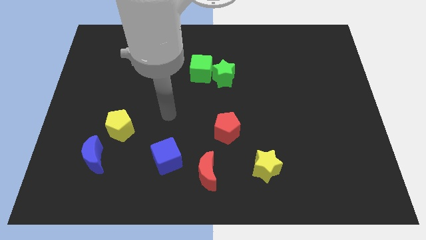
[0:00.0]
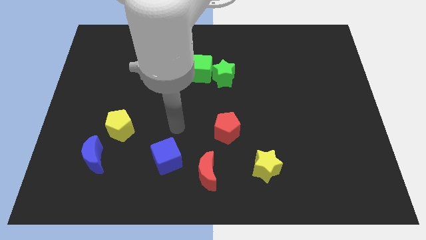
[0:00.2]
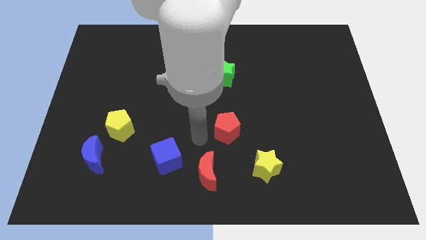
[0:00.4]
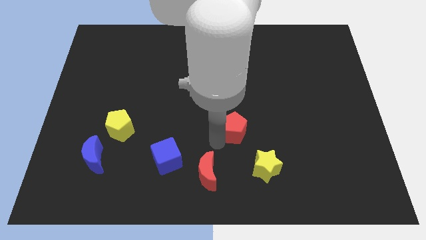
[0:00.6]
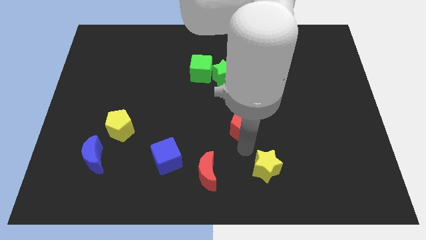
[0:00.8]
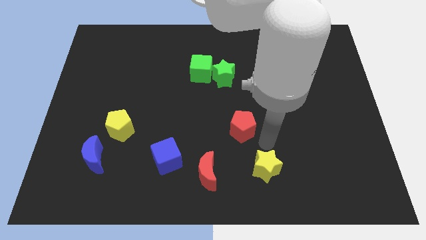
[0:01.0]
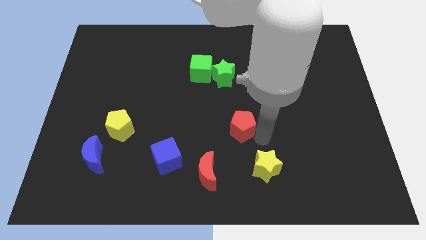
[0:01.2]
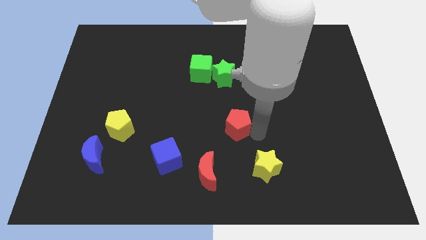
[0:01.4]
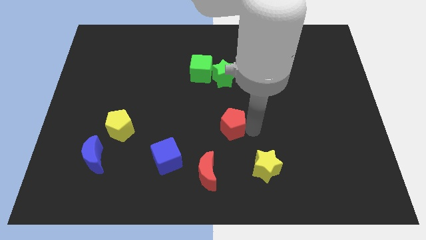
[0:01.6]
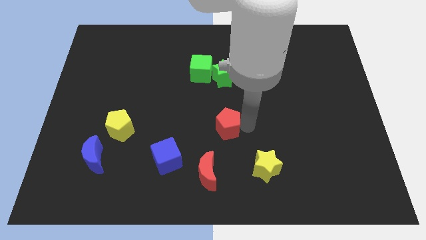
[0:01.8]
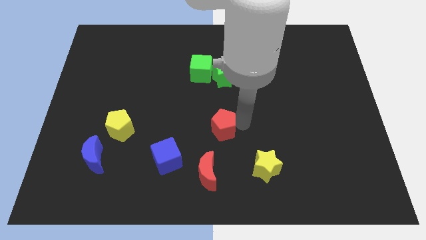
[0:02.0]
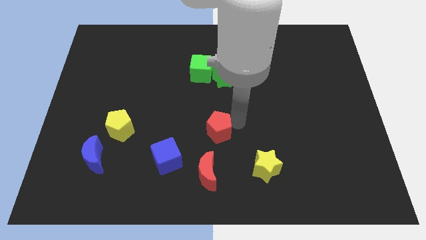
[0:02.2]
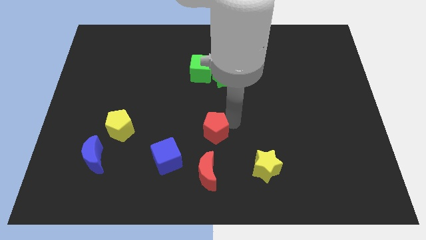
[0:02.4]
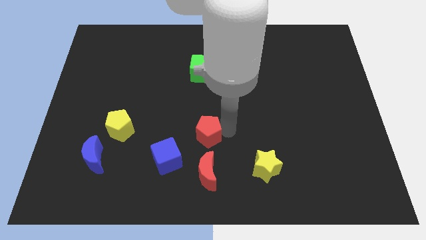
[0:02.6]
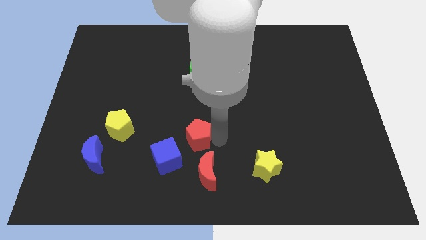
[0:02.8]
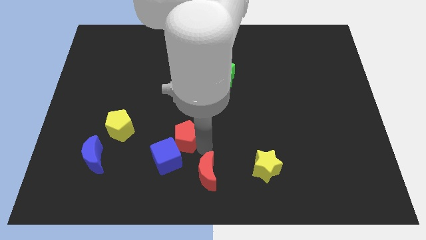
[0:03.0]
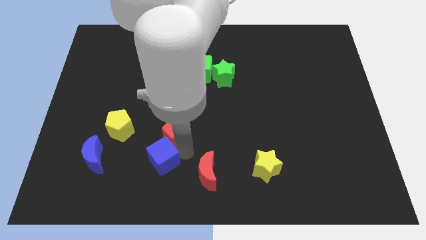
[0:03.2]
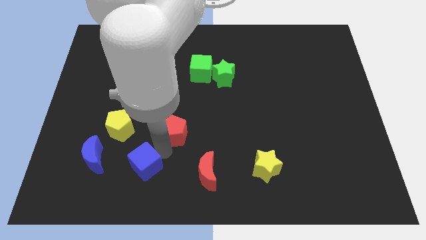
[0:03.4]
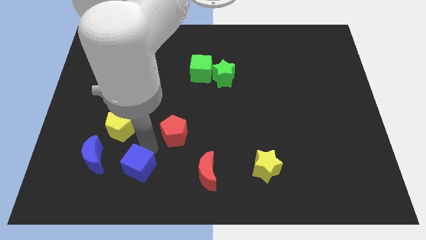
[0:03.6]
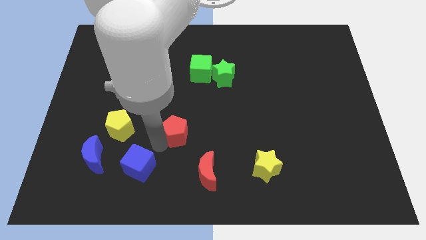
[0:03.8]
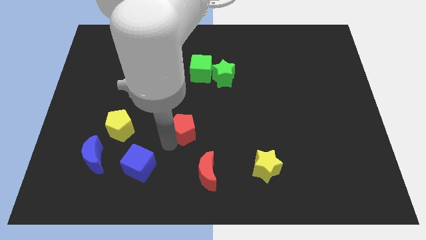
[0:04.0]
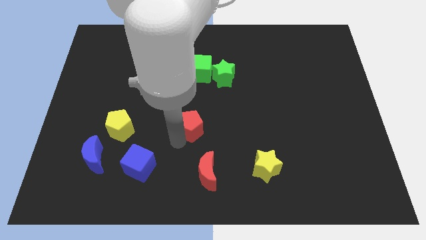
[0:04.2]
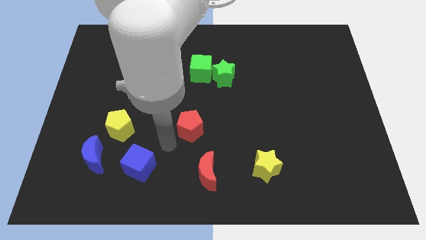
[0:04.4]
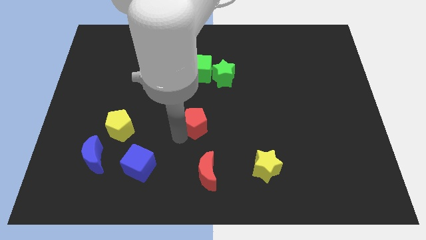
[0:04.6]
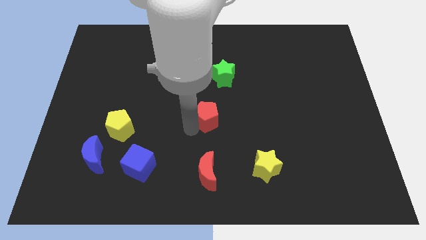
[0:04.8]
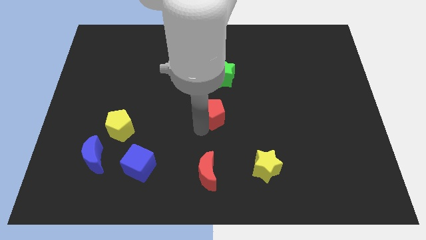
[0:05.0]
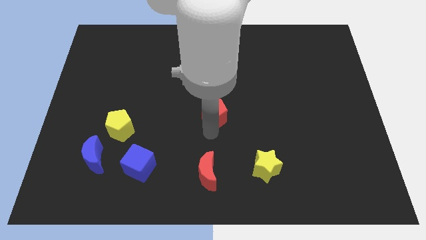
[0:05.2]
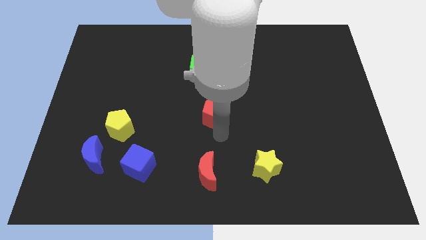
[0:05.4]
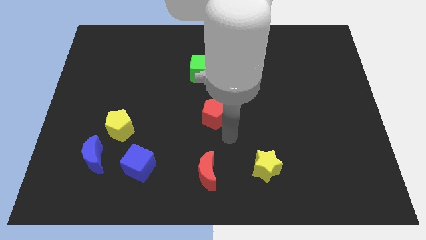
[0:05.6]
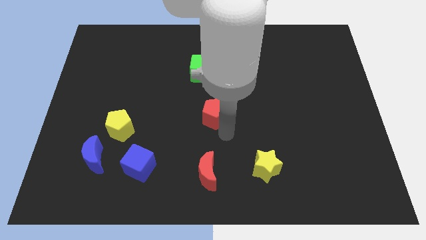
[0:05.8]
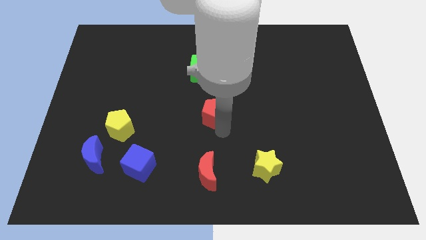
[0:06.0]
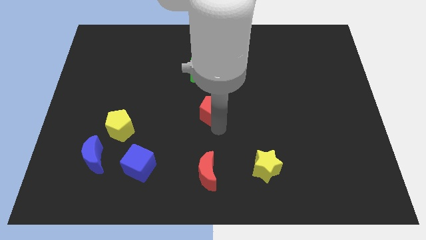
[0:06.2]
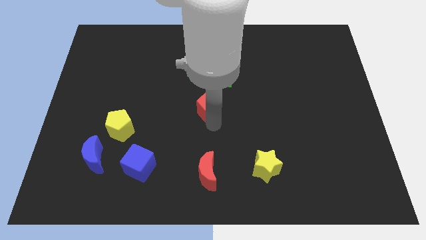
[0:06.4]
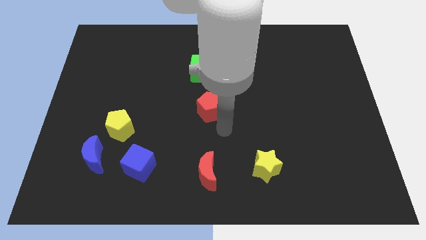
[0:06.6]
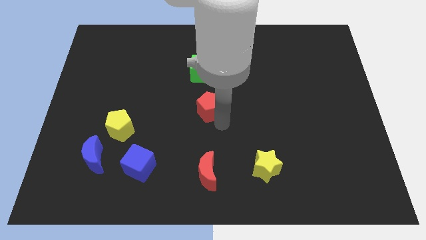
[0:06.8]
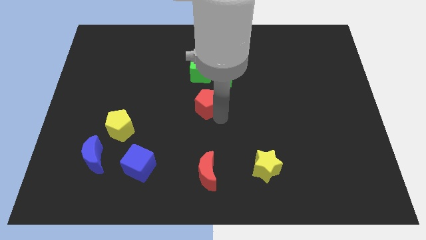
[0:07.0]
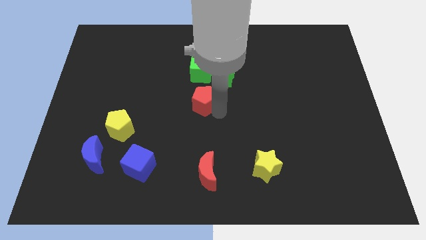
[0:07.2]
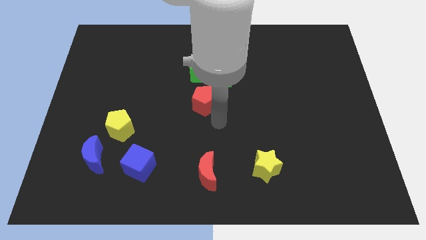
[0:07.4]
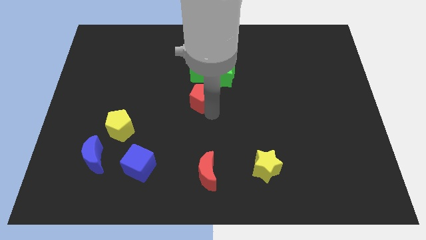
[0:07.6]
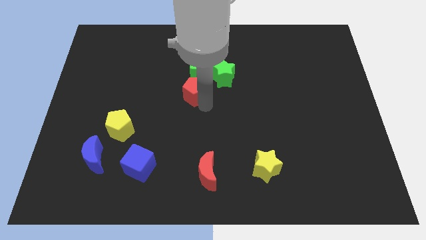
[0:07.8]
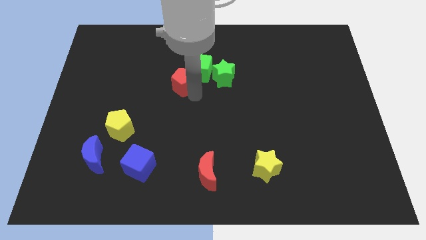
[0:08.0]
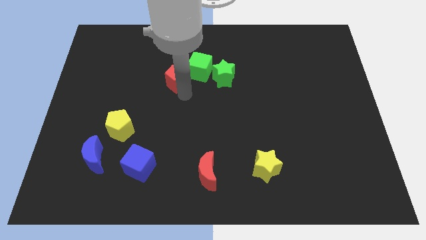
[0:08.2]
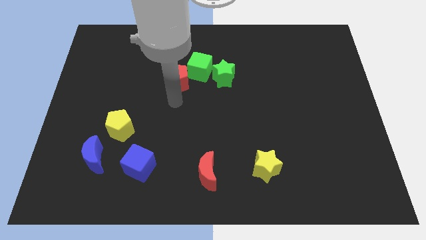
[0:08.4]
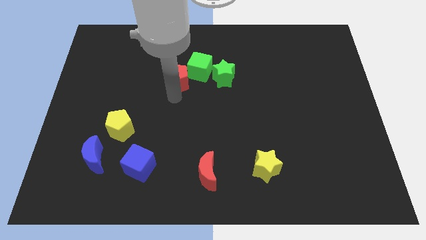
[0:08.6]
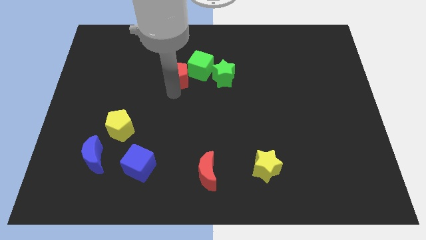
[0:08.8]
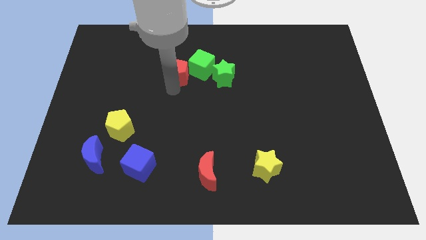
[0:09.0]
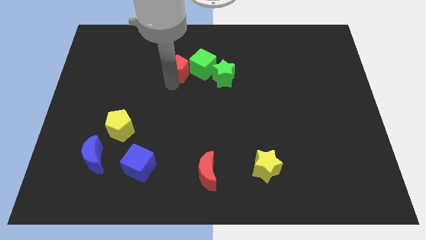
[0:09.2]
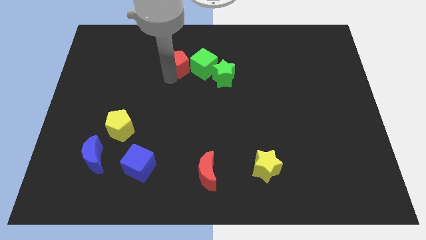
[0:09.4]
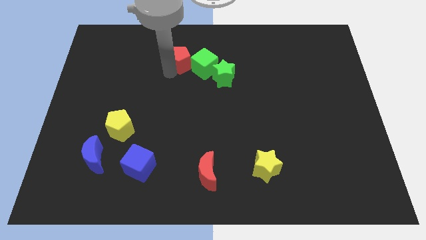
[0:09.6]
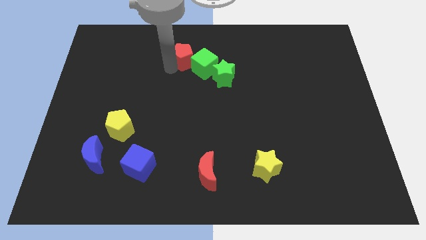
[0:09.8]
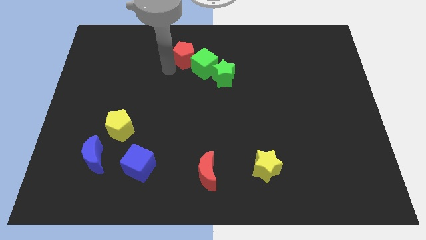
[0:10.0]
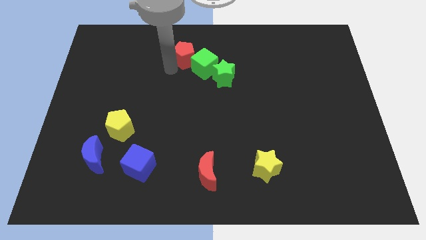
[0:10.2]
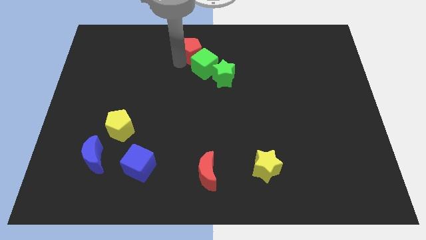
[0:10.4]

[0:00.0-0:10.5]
slide the red pentagon to the top side

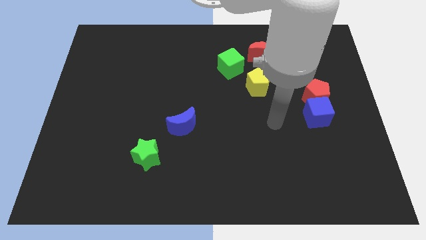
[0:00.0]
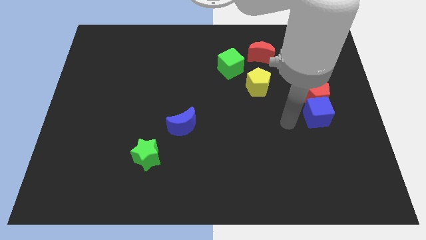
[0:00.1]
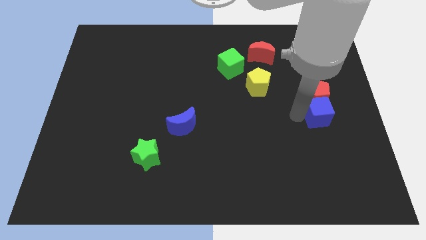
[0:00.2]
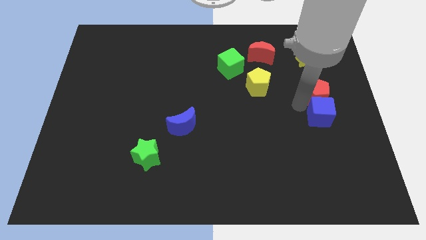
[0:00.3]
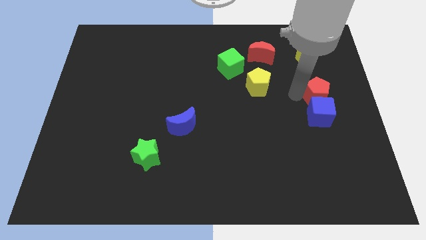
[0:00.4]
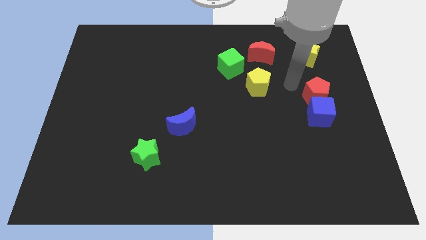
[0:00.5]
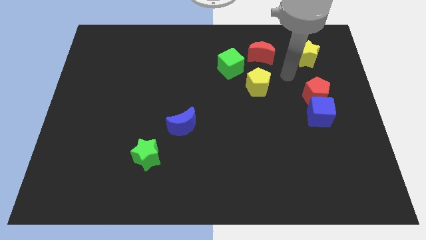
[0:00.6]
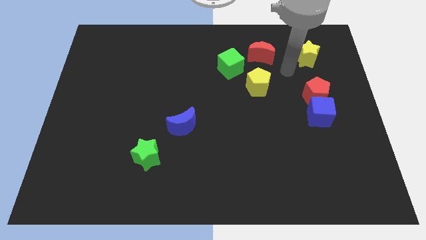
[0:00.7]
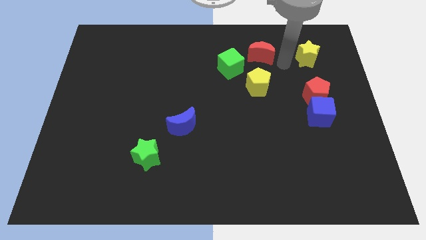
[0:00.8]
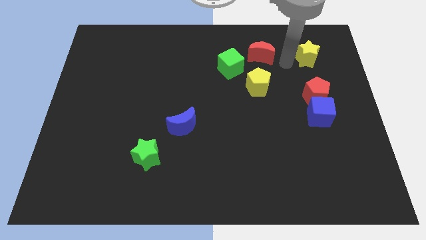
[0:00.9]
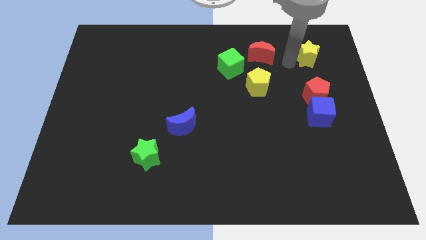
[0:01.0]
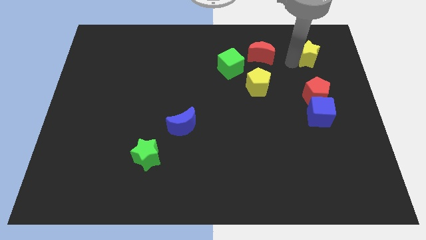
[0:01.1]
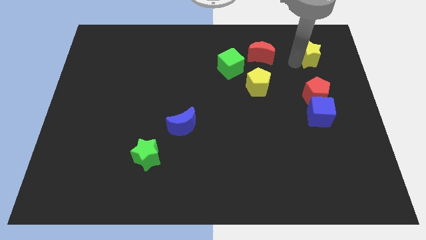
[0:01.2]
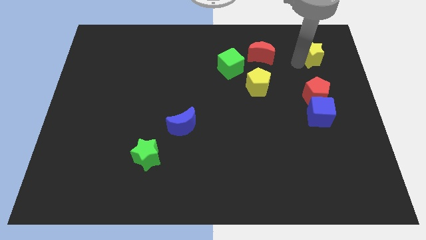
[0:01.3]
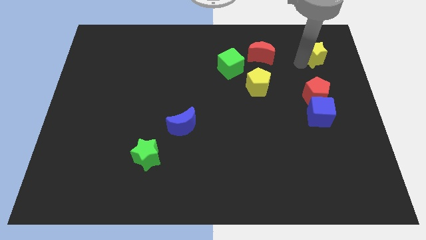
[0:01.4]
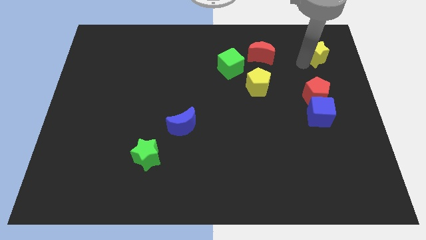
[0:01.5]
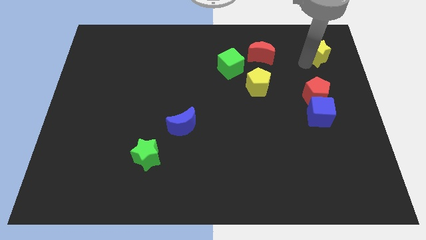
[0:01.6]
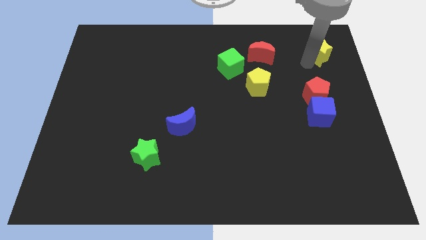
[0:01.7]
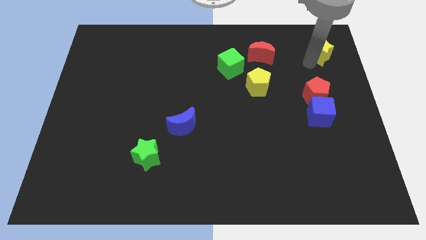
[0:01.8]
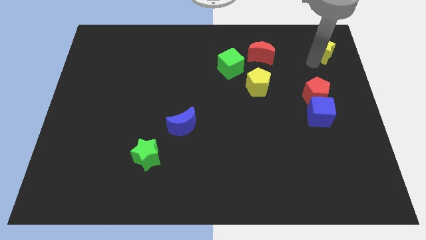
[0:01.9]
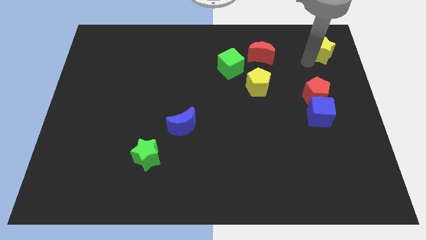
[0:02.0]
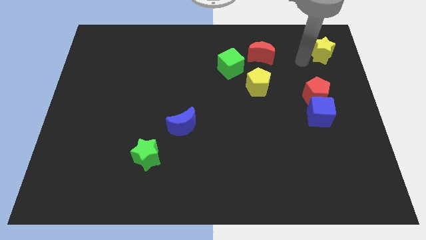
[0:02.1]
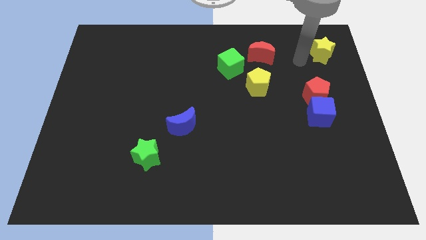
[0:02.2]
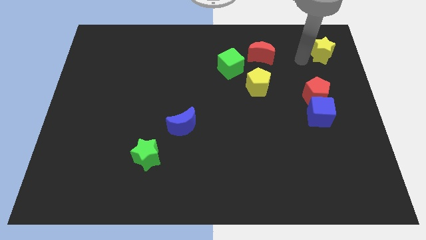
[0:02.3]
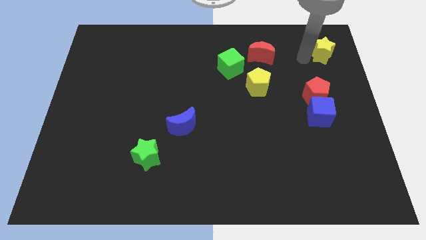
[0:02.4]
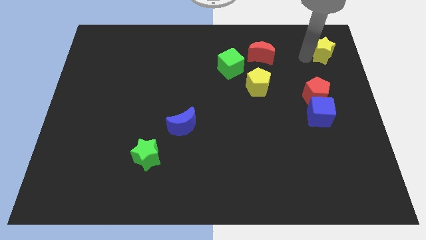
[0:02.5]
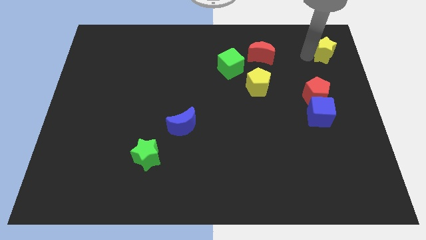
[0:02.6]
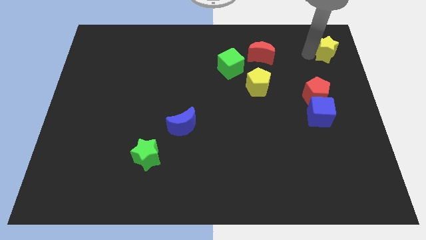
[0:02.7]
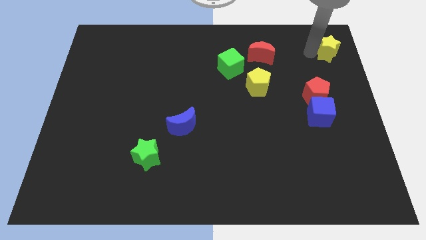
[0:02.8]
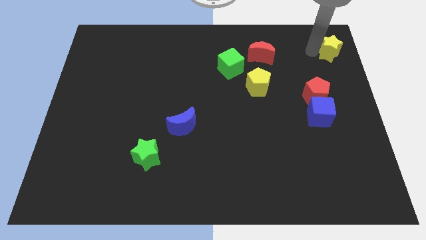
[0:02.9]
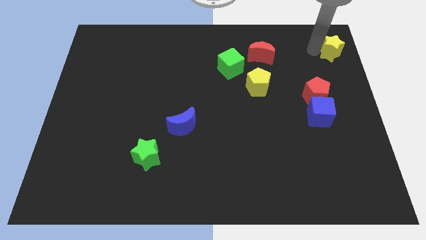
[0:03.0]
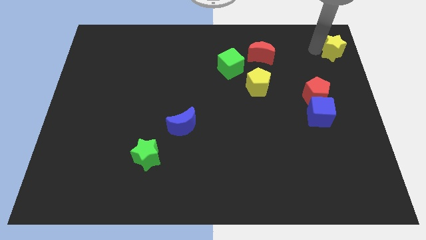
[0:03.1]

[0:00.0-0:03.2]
push the yellow star to the top right
